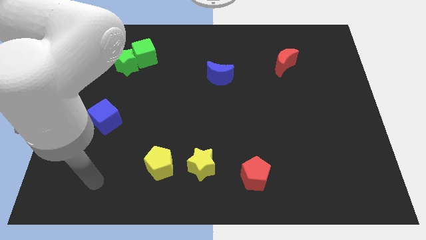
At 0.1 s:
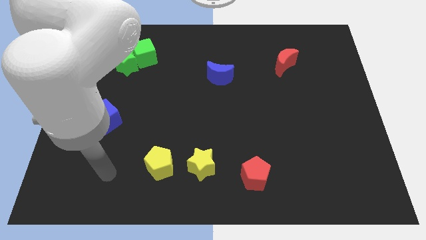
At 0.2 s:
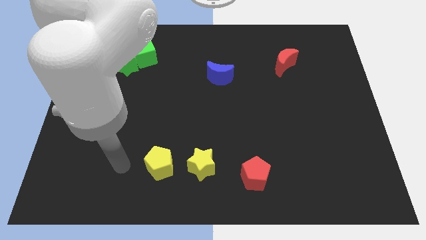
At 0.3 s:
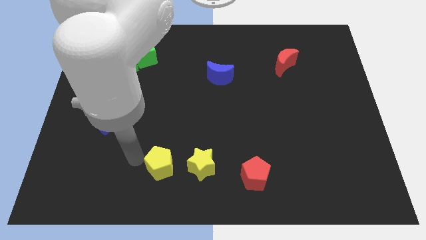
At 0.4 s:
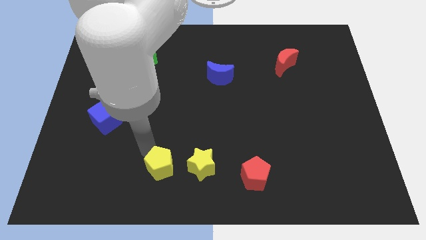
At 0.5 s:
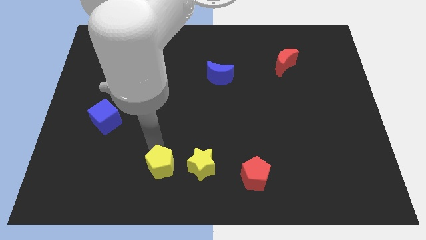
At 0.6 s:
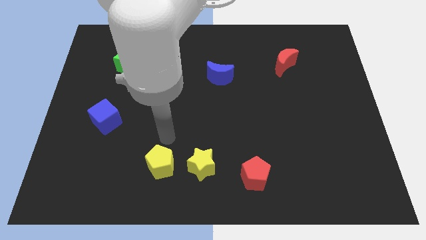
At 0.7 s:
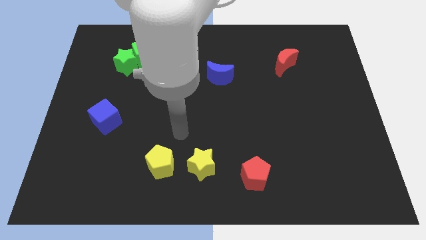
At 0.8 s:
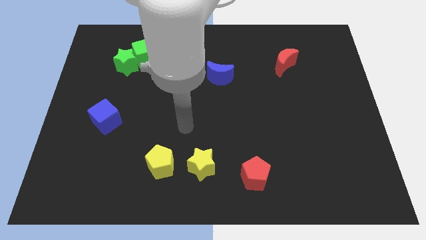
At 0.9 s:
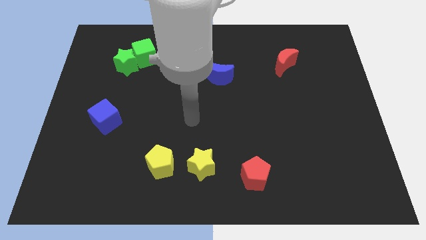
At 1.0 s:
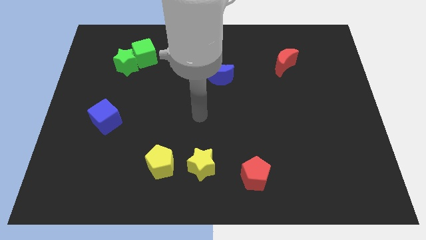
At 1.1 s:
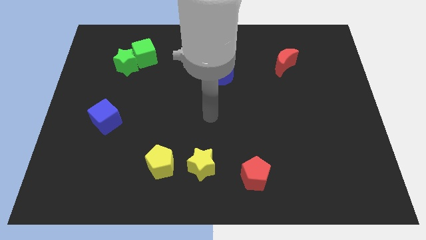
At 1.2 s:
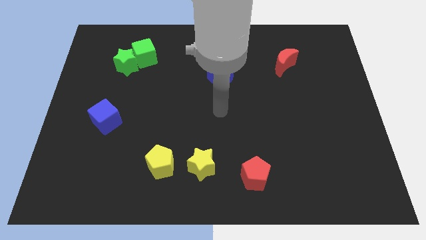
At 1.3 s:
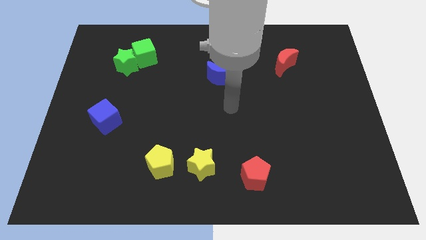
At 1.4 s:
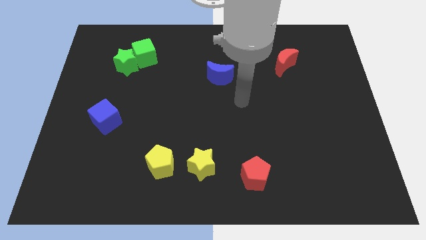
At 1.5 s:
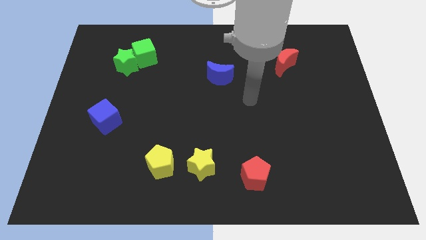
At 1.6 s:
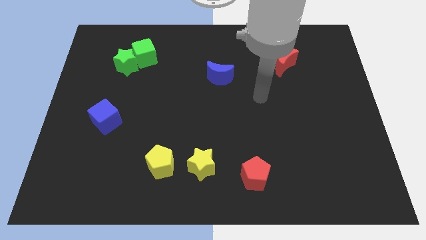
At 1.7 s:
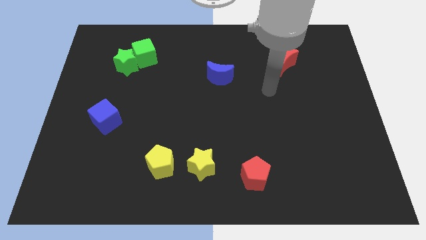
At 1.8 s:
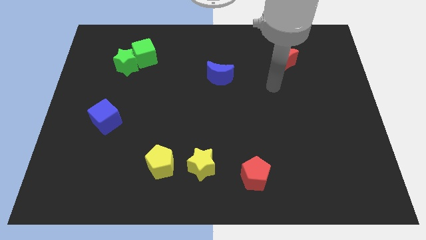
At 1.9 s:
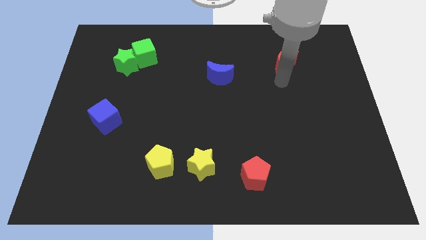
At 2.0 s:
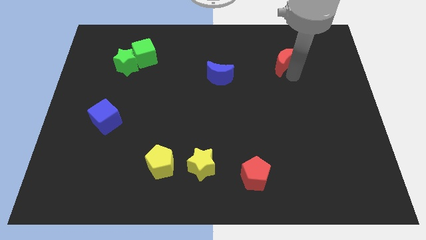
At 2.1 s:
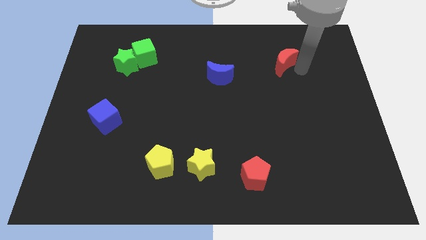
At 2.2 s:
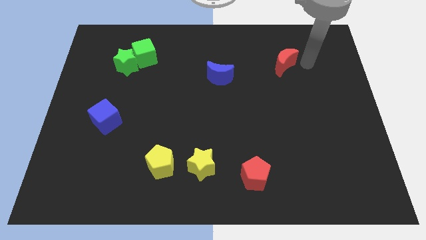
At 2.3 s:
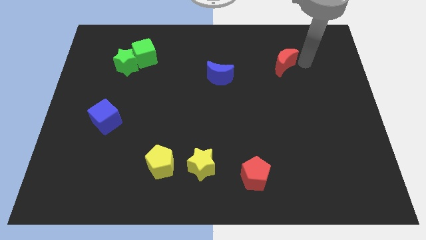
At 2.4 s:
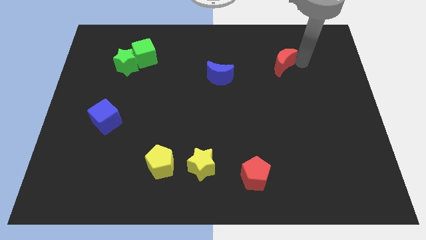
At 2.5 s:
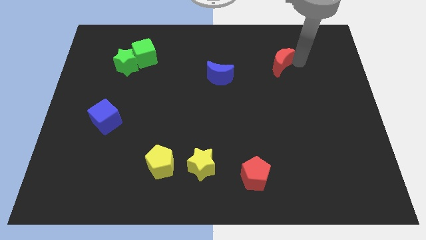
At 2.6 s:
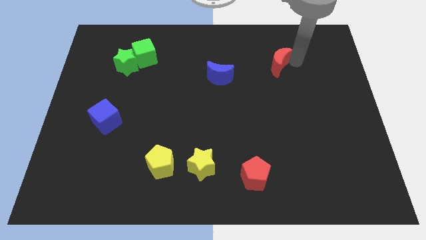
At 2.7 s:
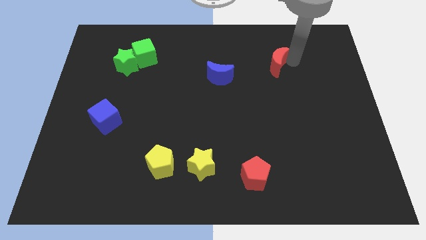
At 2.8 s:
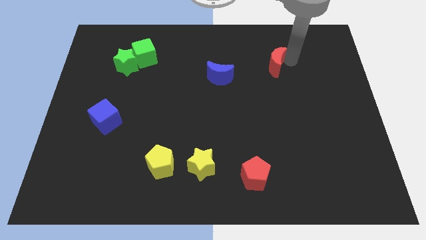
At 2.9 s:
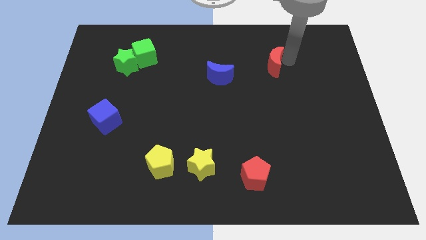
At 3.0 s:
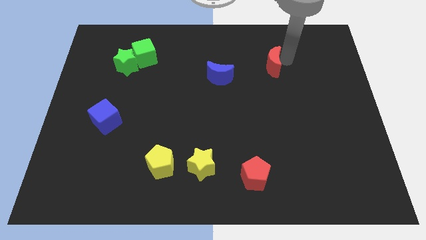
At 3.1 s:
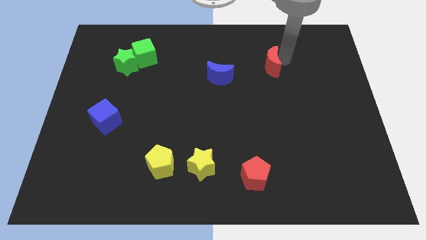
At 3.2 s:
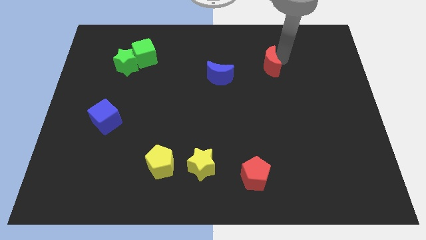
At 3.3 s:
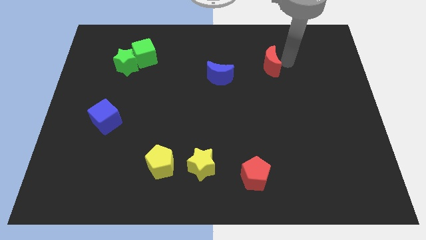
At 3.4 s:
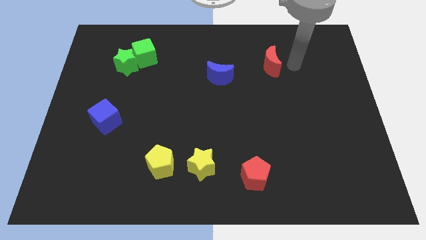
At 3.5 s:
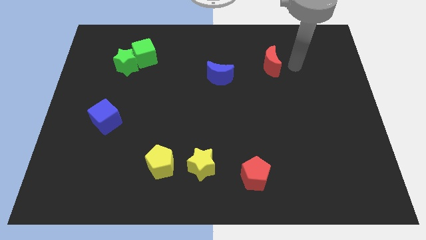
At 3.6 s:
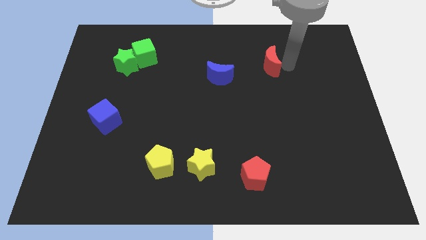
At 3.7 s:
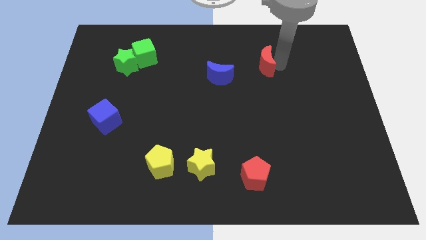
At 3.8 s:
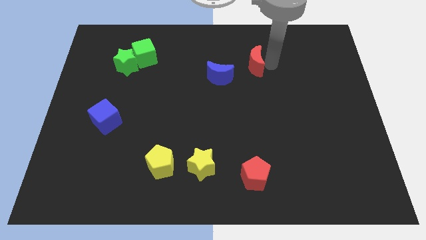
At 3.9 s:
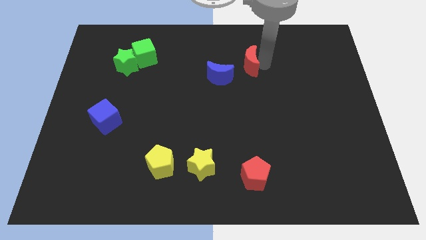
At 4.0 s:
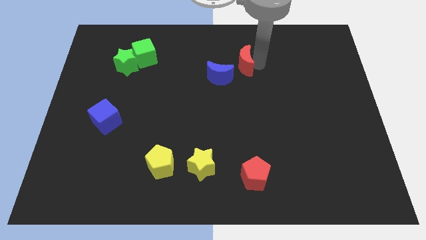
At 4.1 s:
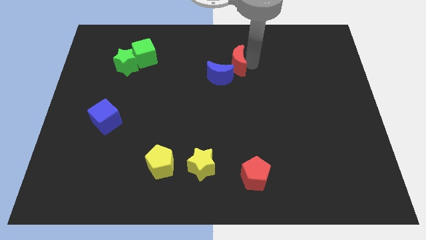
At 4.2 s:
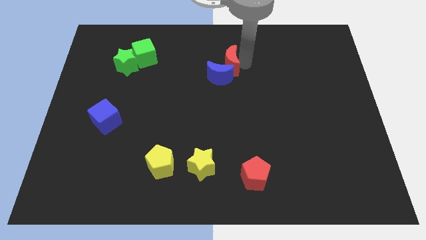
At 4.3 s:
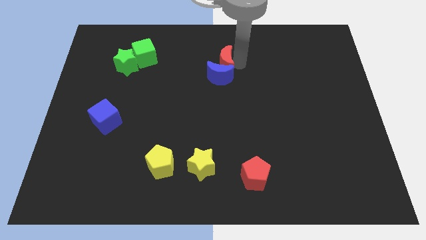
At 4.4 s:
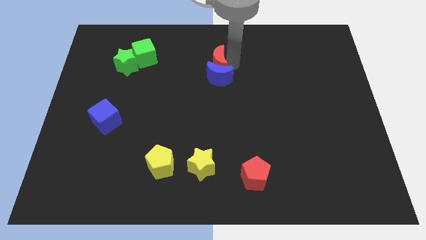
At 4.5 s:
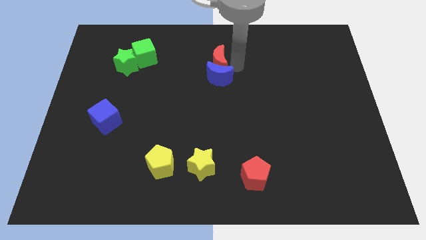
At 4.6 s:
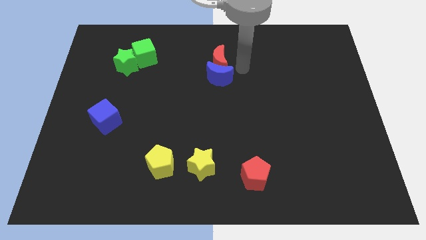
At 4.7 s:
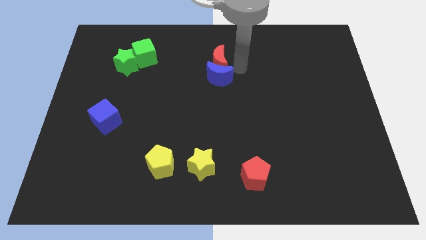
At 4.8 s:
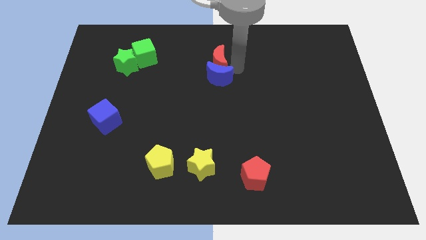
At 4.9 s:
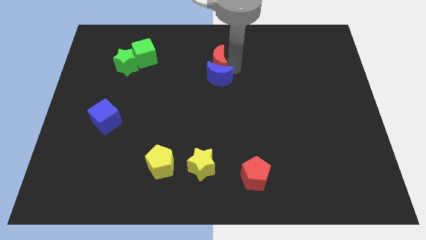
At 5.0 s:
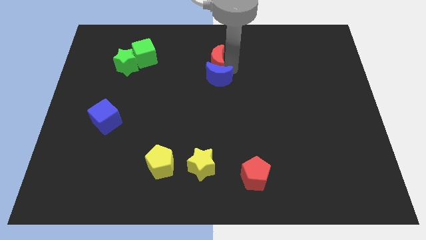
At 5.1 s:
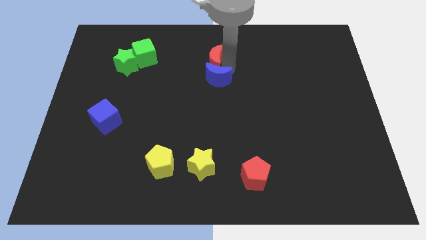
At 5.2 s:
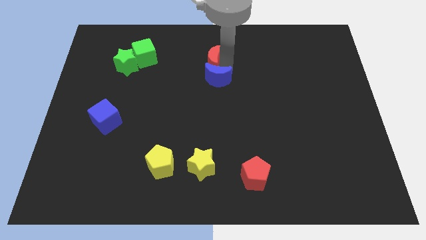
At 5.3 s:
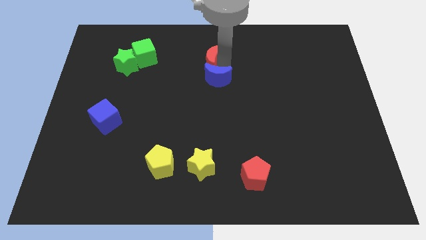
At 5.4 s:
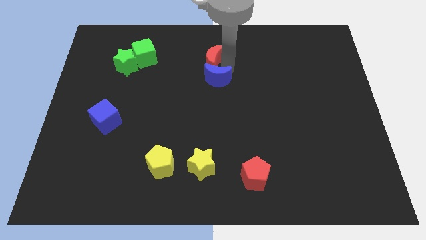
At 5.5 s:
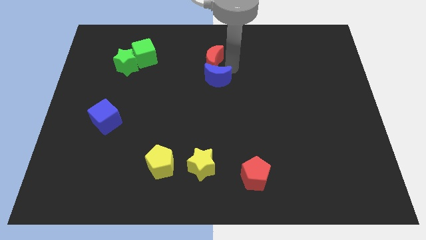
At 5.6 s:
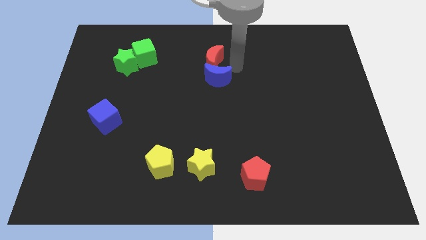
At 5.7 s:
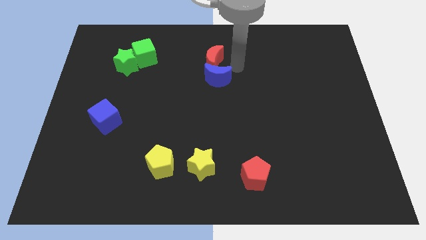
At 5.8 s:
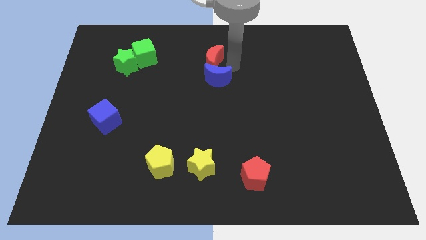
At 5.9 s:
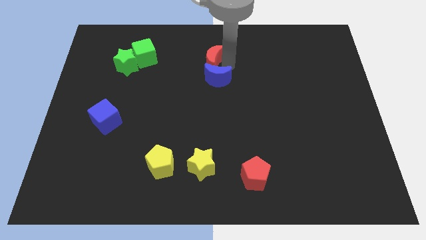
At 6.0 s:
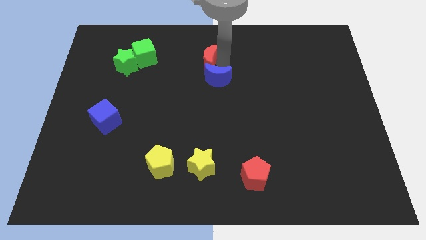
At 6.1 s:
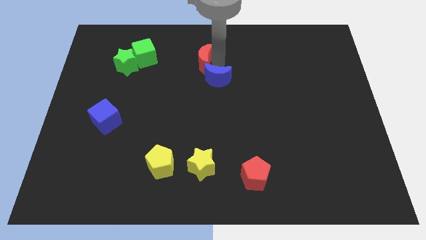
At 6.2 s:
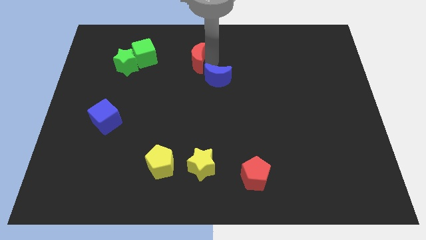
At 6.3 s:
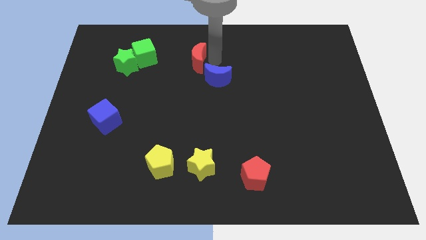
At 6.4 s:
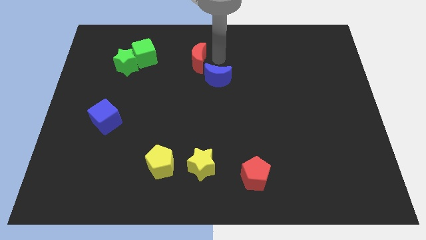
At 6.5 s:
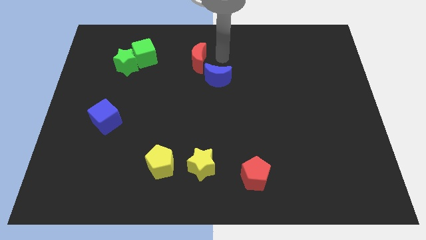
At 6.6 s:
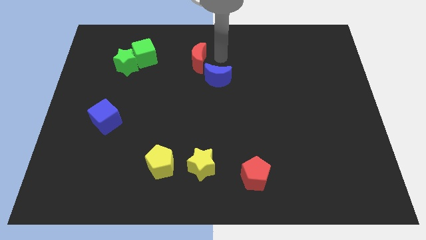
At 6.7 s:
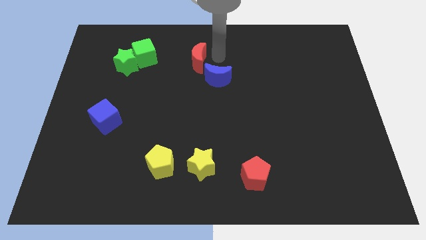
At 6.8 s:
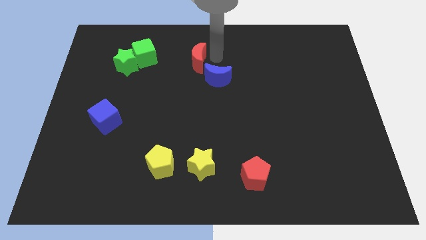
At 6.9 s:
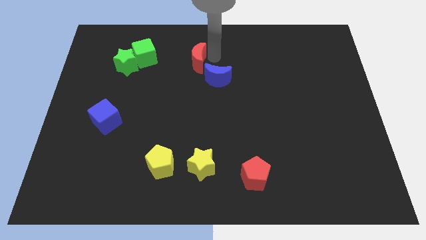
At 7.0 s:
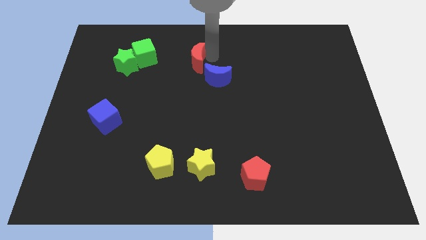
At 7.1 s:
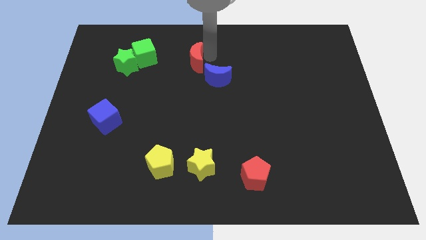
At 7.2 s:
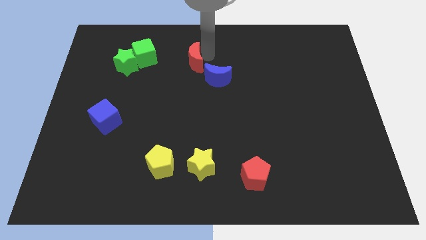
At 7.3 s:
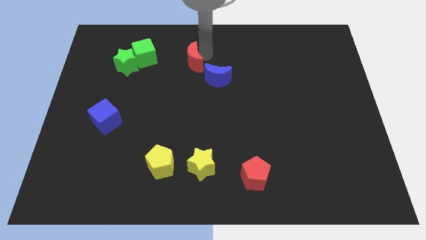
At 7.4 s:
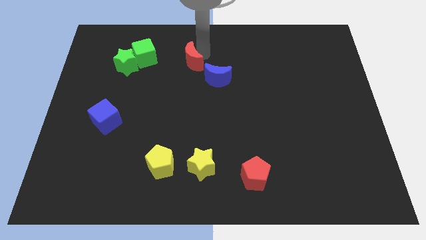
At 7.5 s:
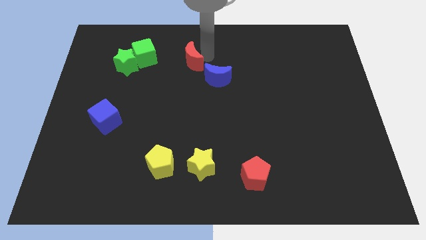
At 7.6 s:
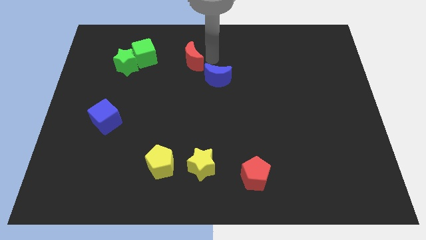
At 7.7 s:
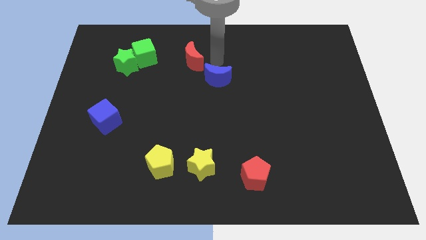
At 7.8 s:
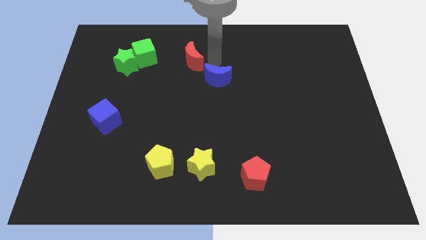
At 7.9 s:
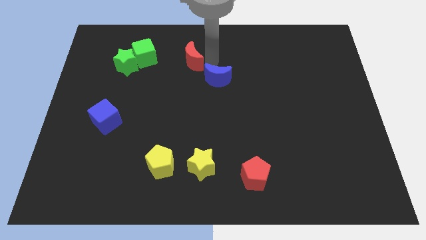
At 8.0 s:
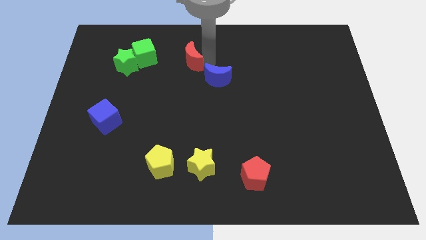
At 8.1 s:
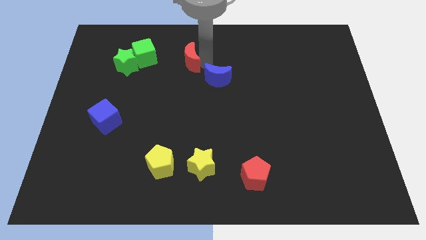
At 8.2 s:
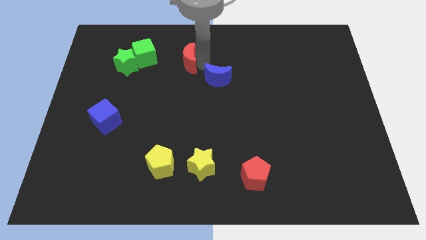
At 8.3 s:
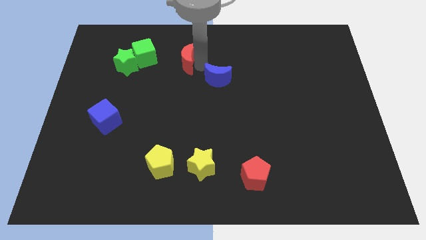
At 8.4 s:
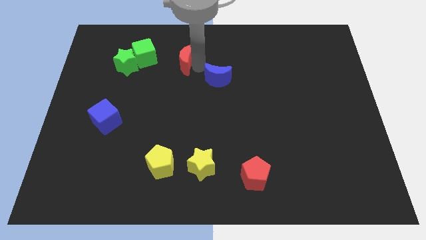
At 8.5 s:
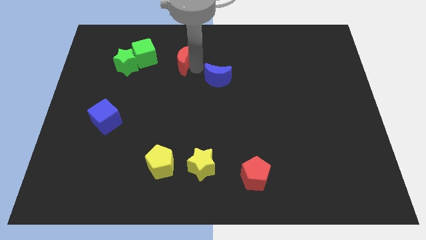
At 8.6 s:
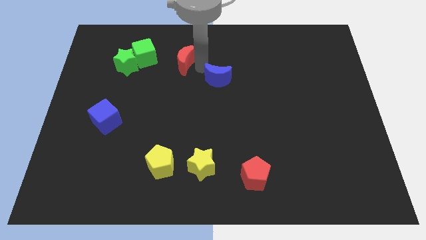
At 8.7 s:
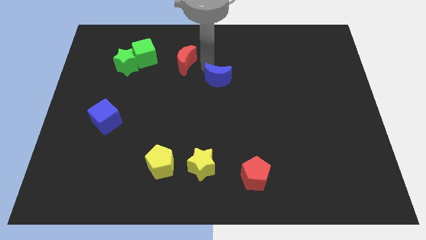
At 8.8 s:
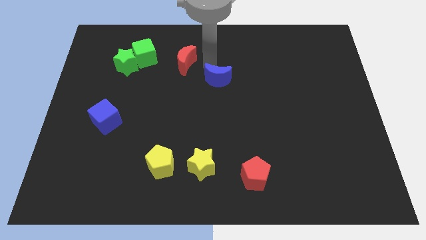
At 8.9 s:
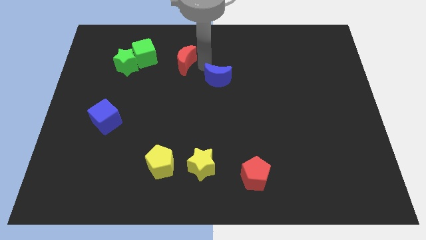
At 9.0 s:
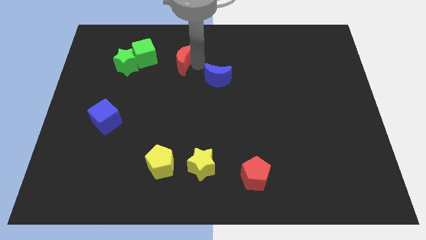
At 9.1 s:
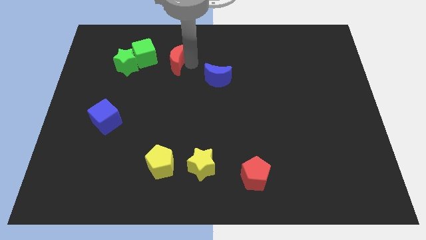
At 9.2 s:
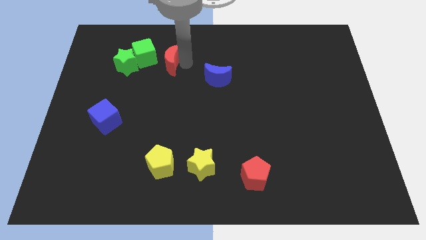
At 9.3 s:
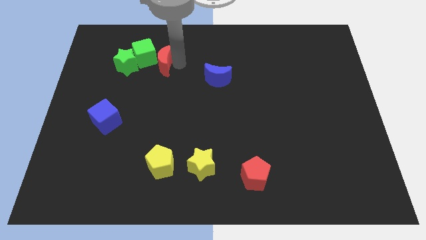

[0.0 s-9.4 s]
slide the red moon towards the green cube
